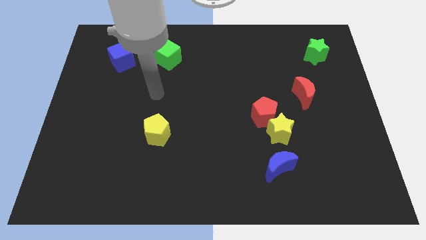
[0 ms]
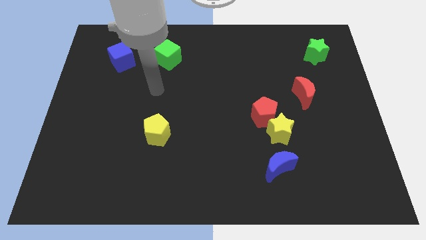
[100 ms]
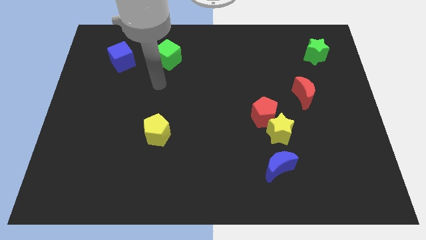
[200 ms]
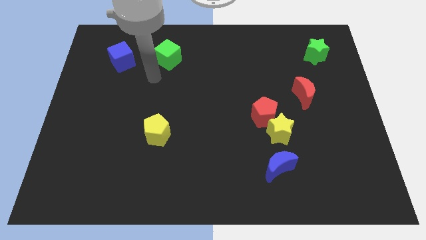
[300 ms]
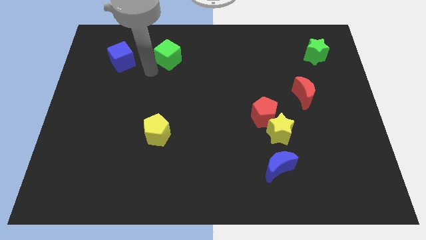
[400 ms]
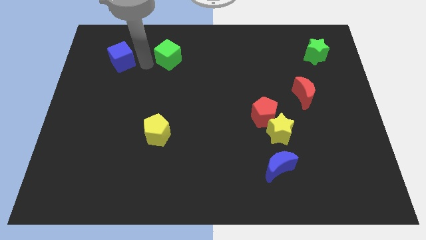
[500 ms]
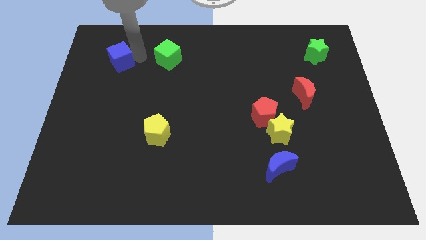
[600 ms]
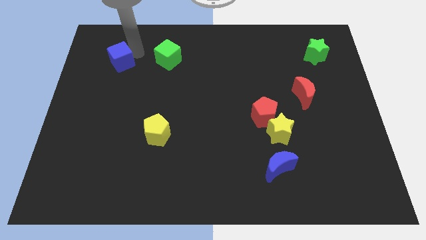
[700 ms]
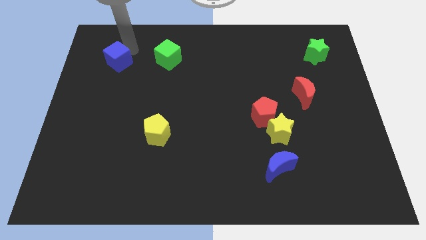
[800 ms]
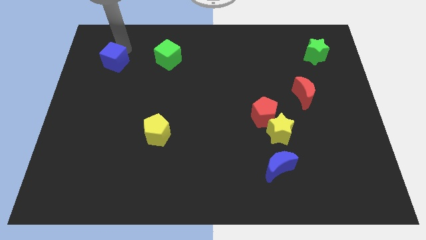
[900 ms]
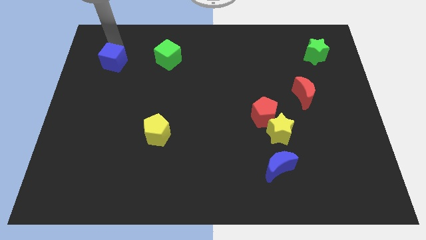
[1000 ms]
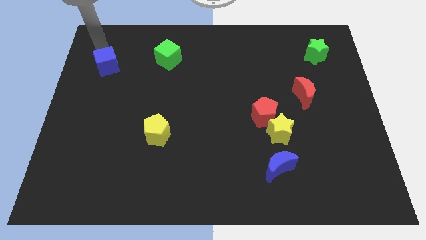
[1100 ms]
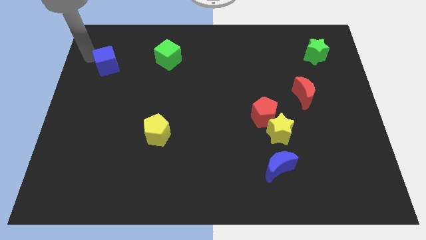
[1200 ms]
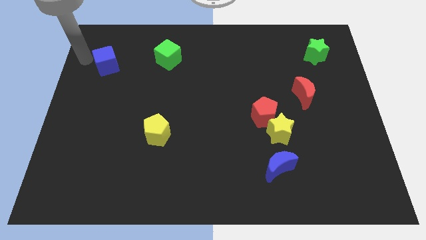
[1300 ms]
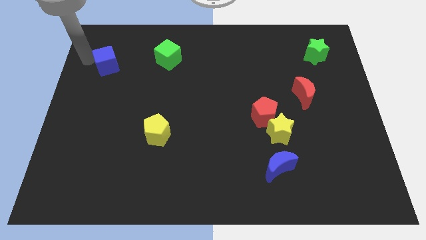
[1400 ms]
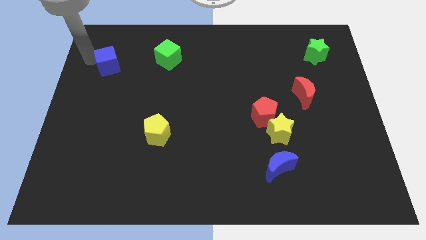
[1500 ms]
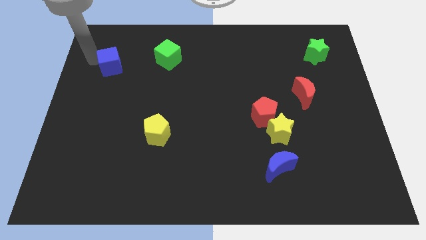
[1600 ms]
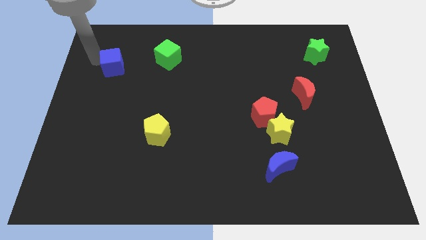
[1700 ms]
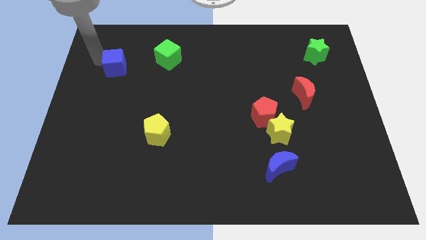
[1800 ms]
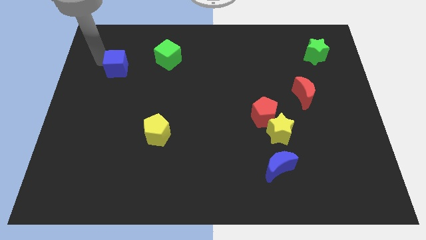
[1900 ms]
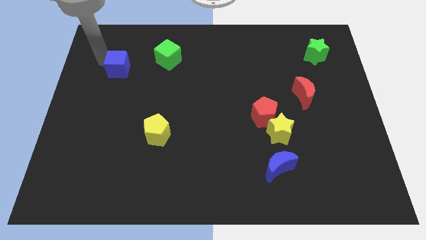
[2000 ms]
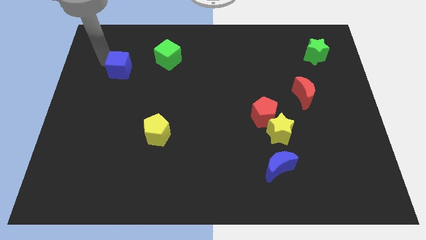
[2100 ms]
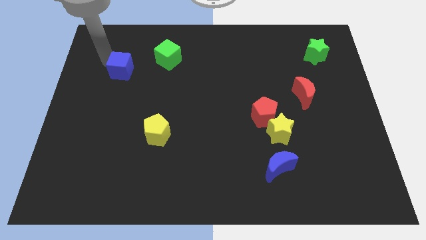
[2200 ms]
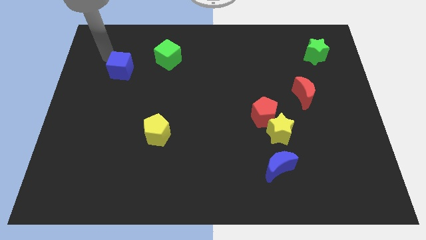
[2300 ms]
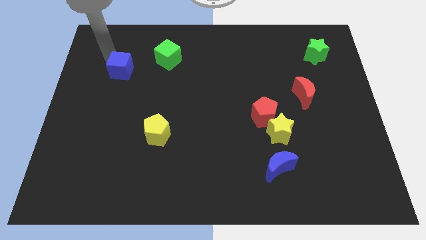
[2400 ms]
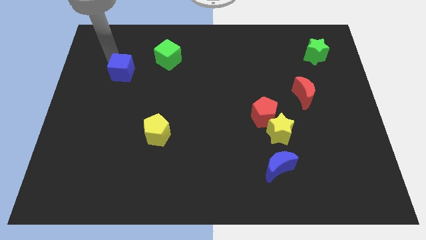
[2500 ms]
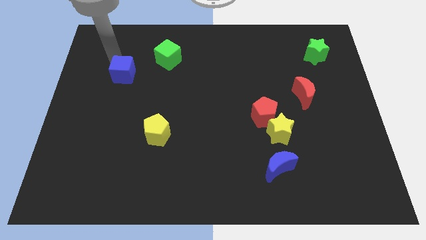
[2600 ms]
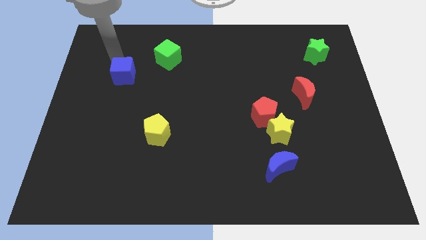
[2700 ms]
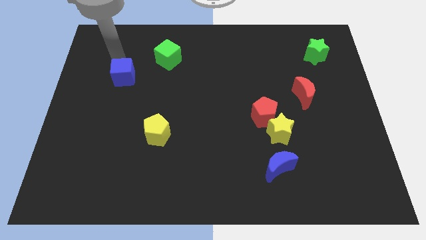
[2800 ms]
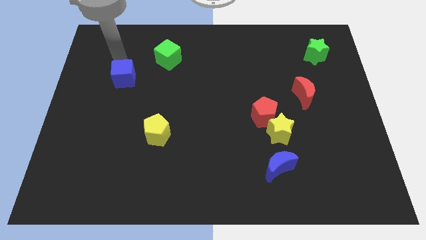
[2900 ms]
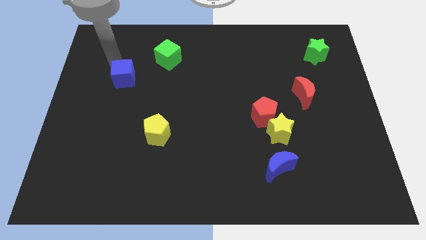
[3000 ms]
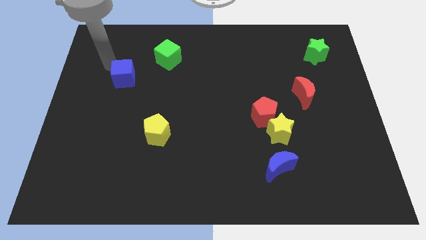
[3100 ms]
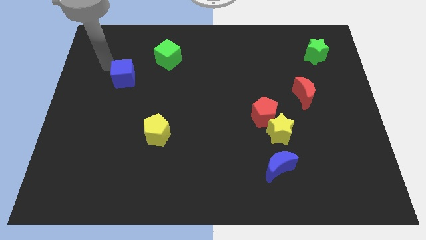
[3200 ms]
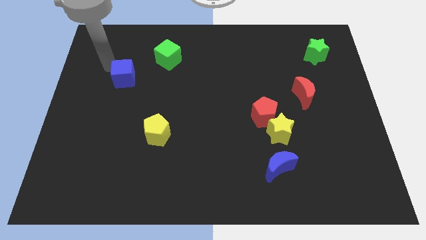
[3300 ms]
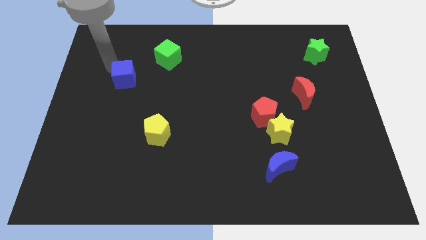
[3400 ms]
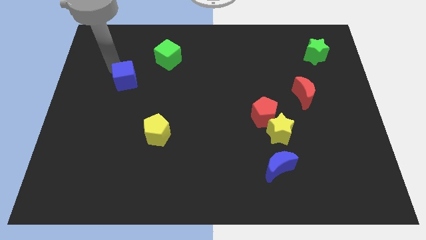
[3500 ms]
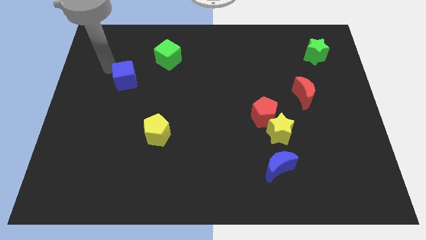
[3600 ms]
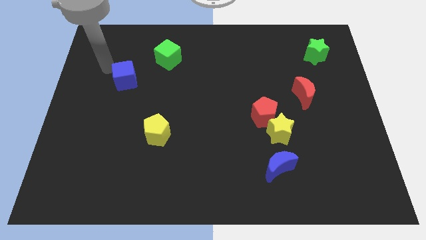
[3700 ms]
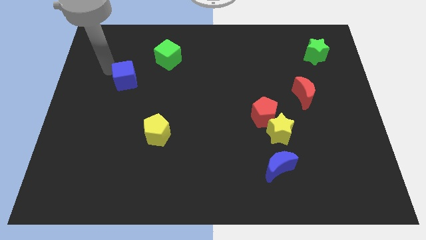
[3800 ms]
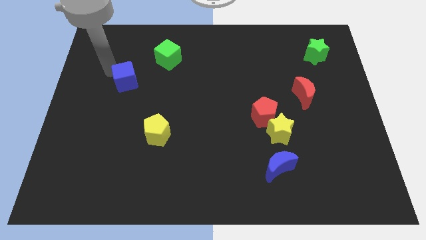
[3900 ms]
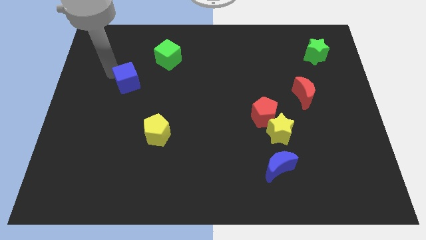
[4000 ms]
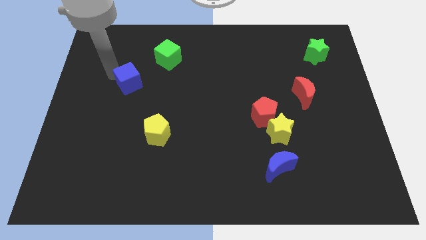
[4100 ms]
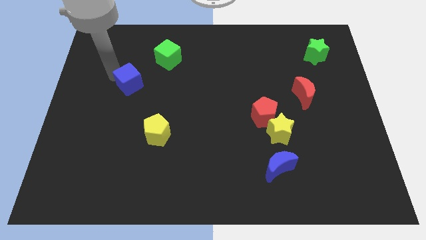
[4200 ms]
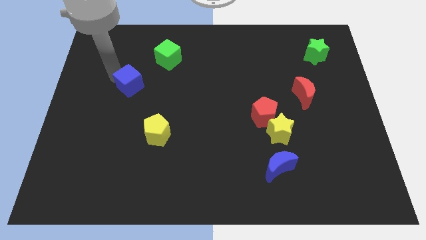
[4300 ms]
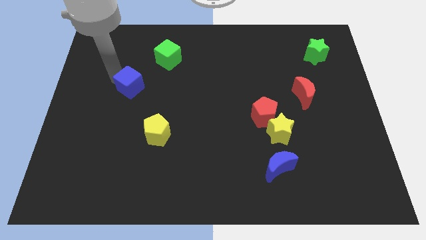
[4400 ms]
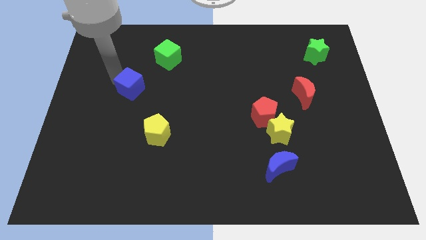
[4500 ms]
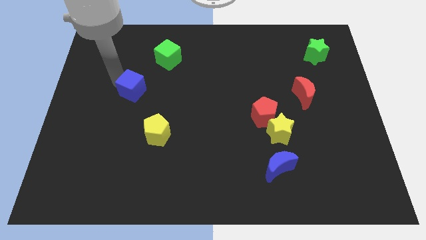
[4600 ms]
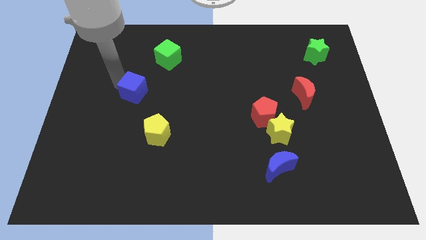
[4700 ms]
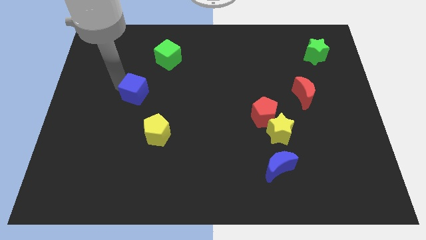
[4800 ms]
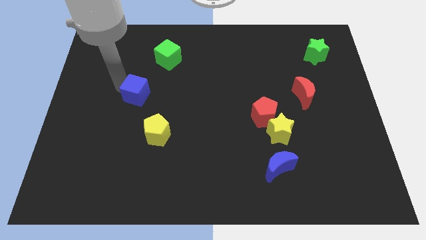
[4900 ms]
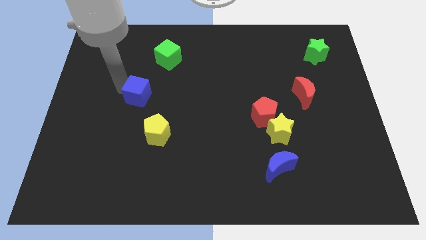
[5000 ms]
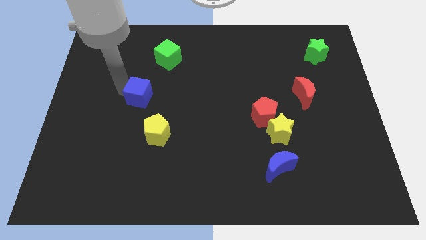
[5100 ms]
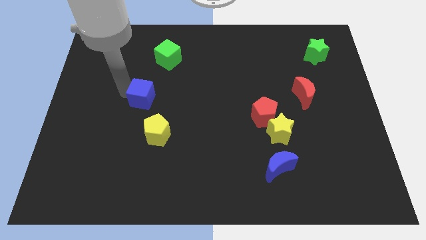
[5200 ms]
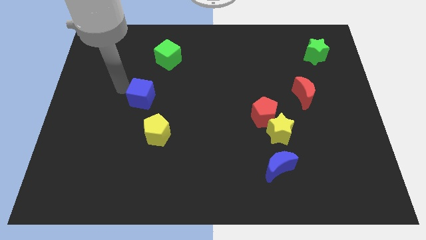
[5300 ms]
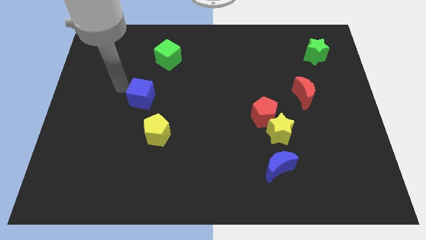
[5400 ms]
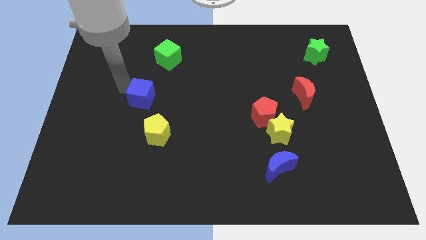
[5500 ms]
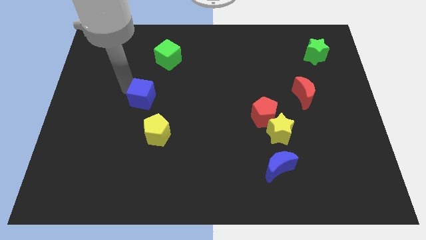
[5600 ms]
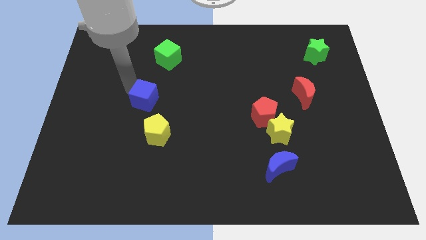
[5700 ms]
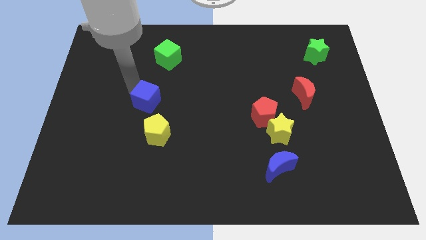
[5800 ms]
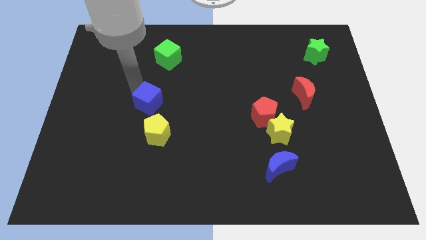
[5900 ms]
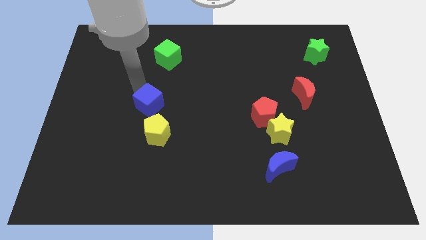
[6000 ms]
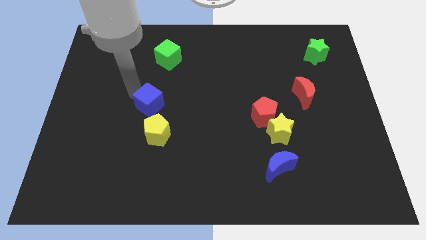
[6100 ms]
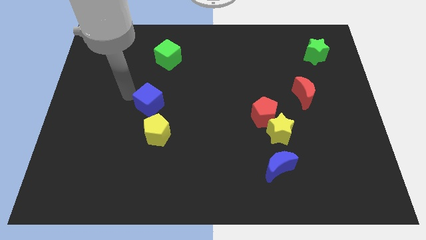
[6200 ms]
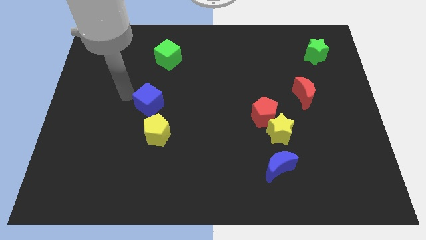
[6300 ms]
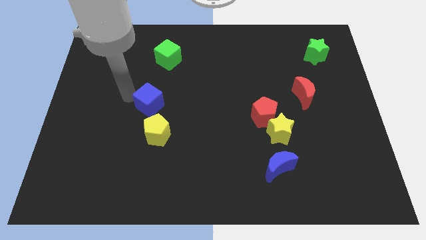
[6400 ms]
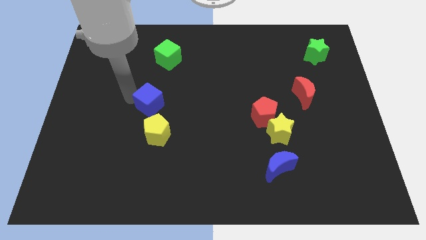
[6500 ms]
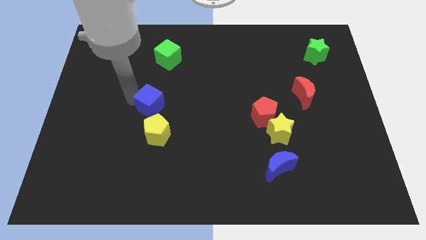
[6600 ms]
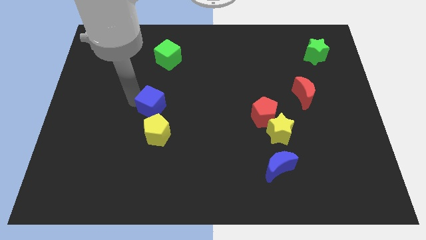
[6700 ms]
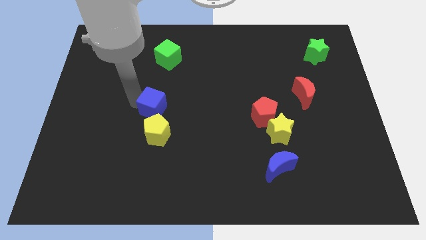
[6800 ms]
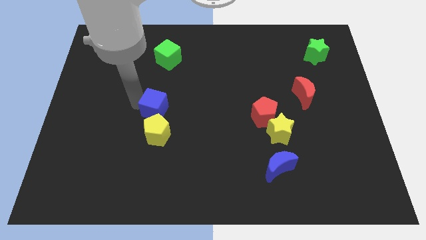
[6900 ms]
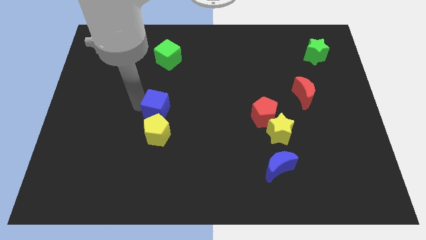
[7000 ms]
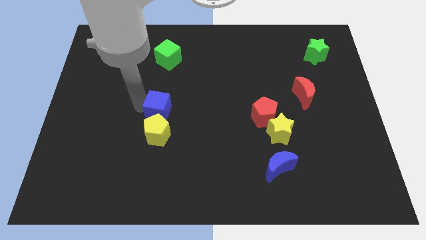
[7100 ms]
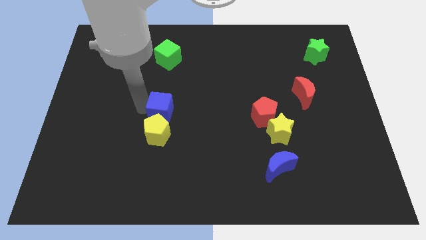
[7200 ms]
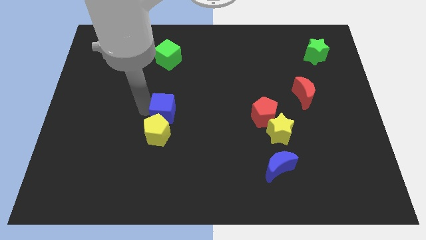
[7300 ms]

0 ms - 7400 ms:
push the blue cube to the yellow pentagon
